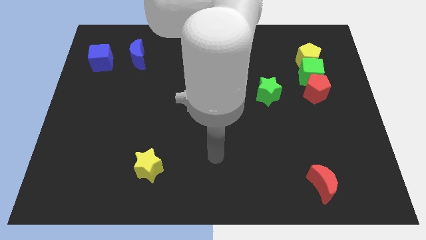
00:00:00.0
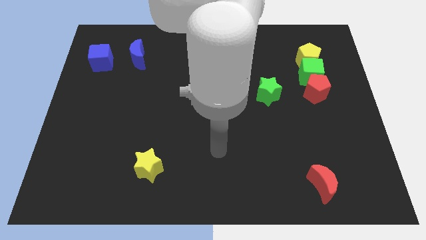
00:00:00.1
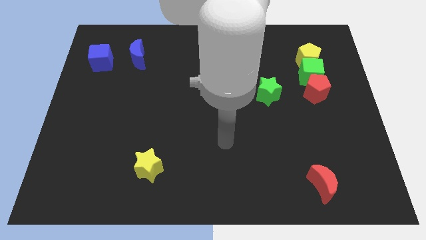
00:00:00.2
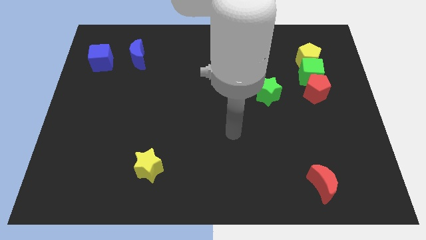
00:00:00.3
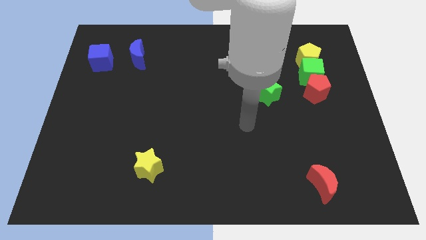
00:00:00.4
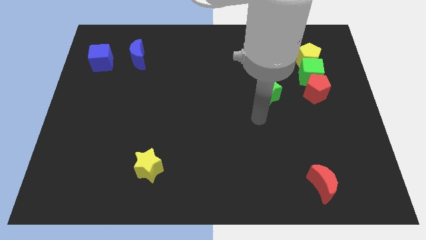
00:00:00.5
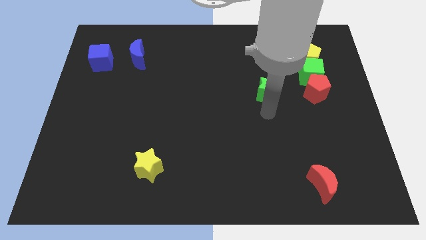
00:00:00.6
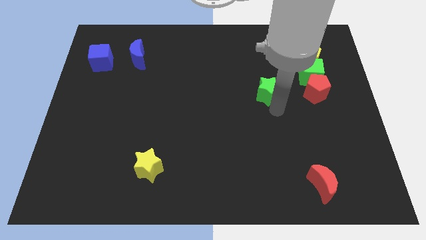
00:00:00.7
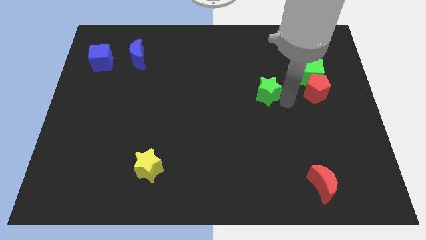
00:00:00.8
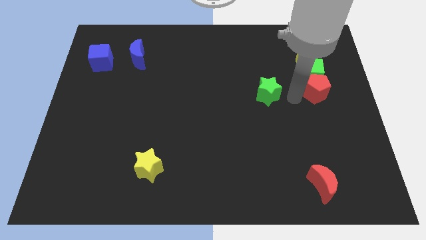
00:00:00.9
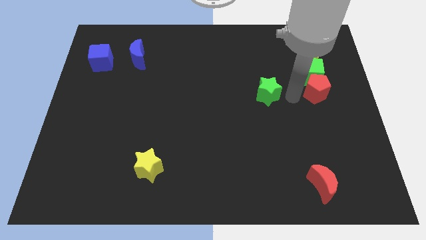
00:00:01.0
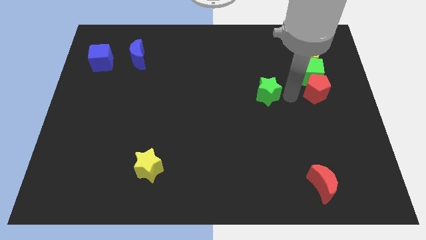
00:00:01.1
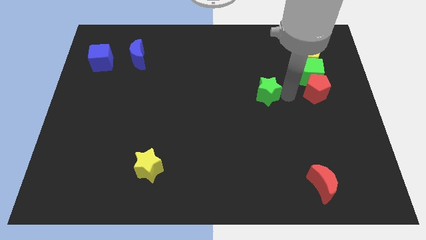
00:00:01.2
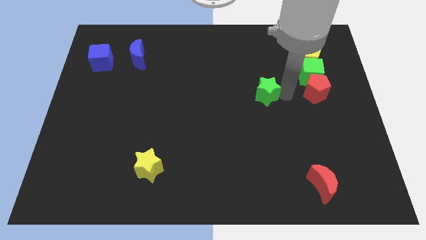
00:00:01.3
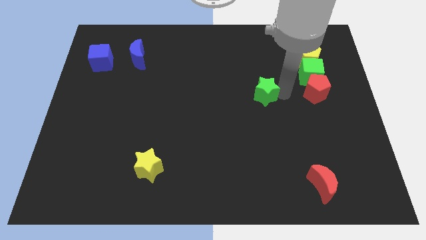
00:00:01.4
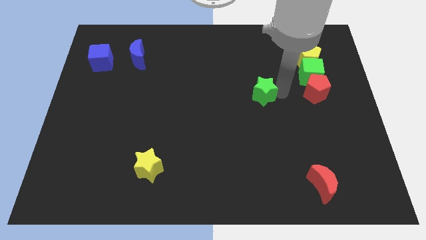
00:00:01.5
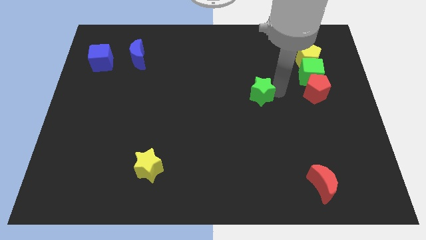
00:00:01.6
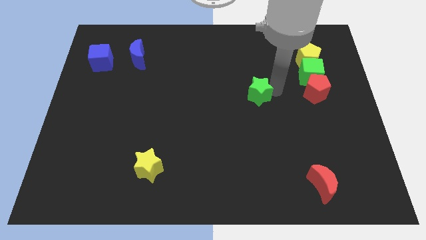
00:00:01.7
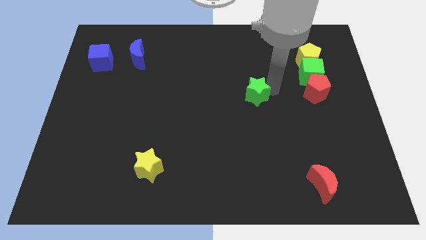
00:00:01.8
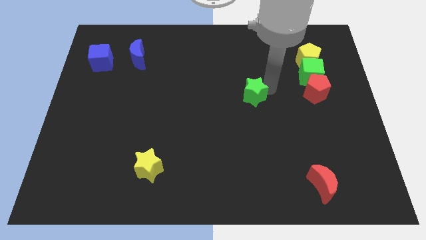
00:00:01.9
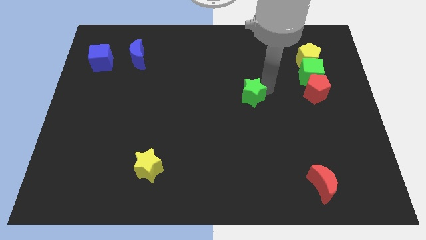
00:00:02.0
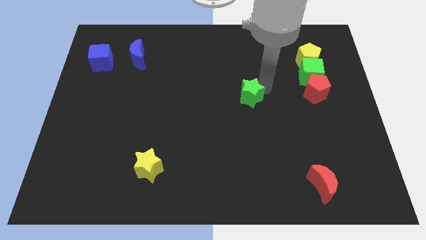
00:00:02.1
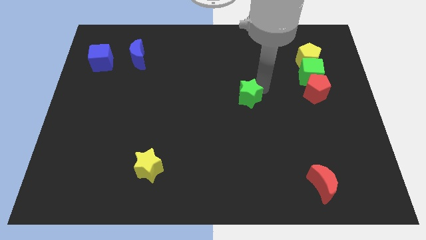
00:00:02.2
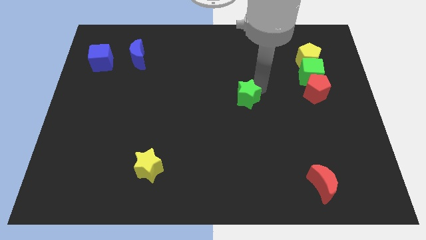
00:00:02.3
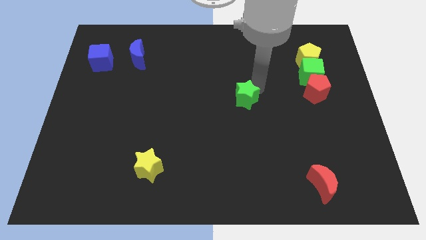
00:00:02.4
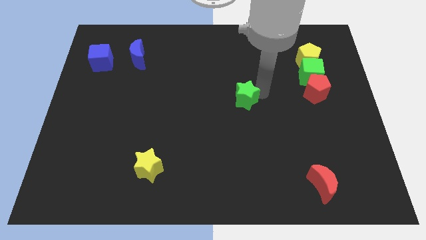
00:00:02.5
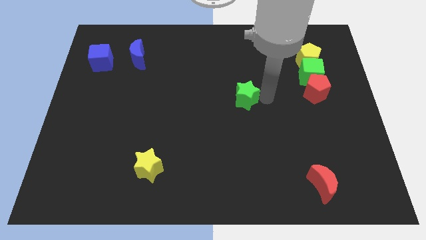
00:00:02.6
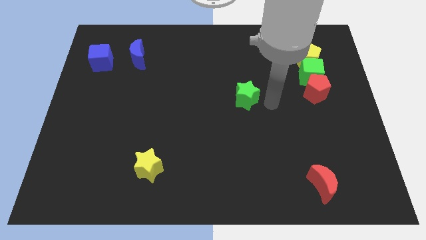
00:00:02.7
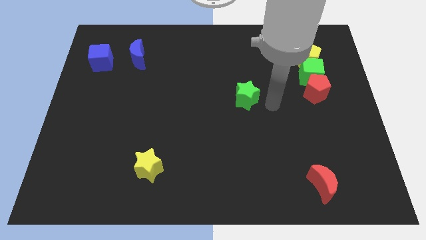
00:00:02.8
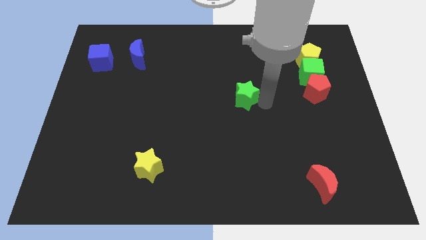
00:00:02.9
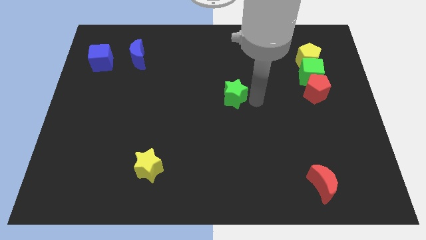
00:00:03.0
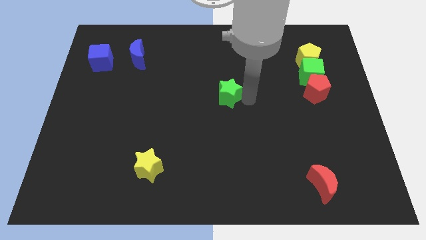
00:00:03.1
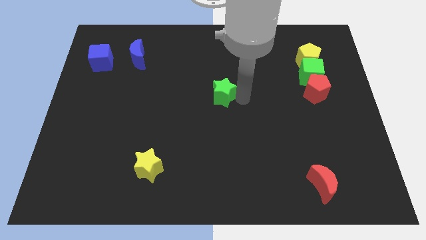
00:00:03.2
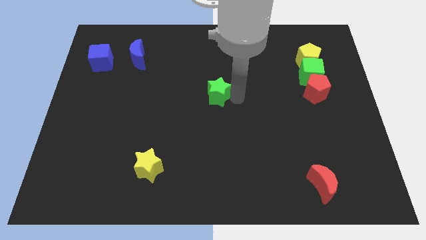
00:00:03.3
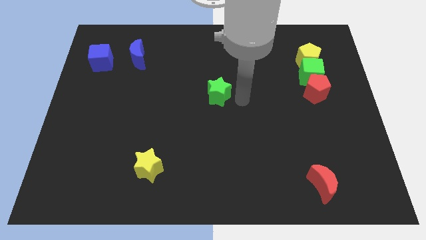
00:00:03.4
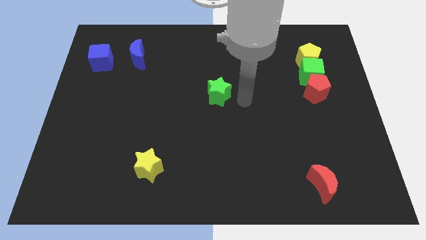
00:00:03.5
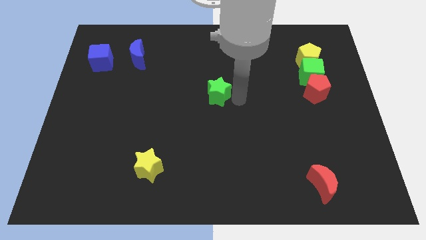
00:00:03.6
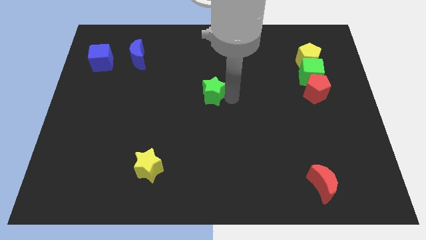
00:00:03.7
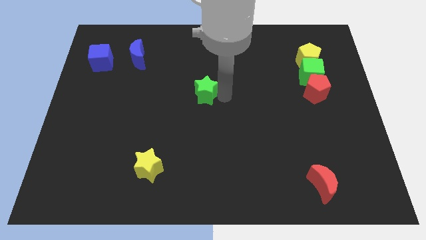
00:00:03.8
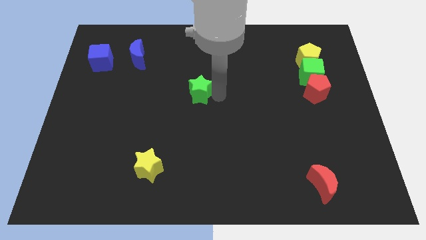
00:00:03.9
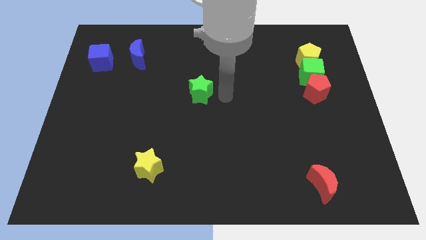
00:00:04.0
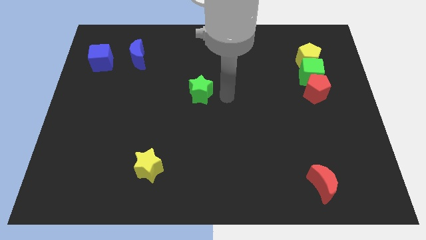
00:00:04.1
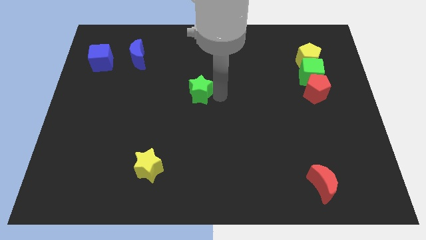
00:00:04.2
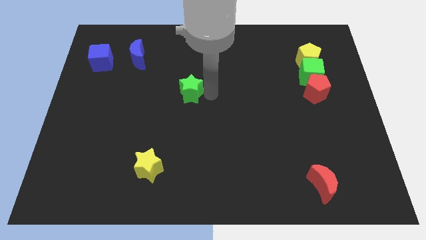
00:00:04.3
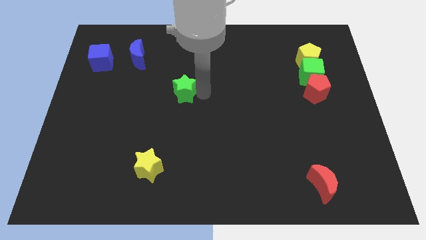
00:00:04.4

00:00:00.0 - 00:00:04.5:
slide the green star left

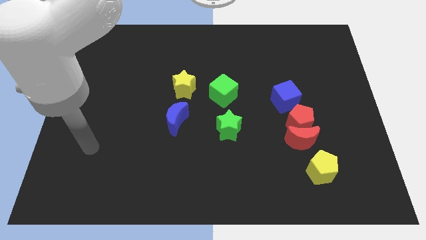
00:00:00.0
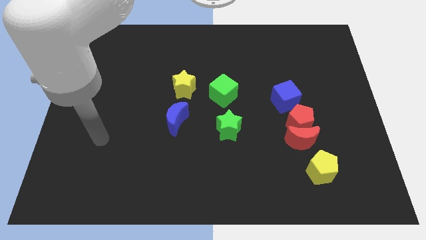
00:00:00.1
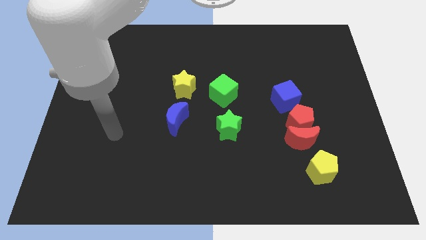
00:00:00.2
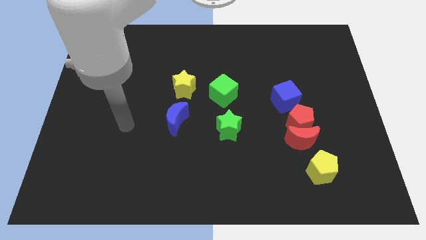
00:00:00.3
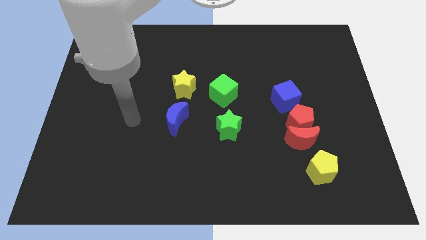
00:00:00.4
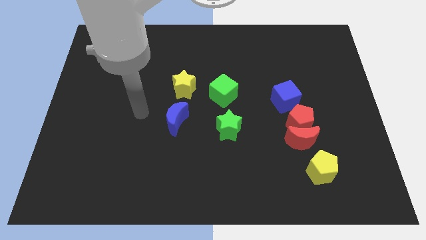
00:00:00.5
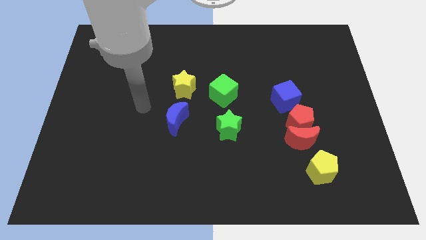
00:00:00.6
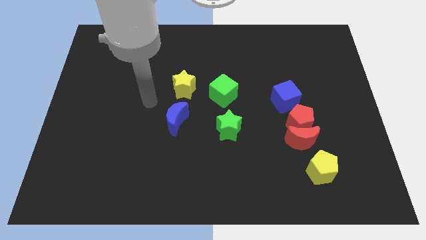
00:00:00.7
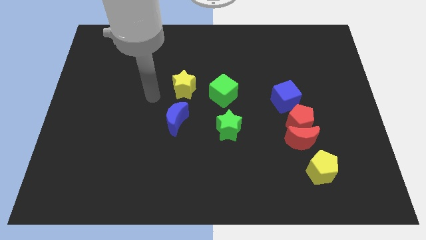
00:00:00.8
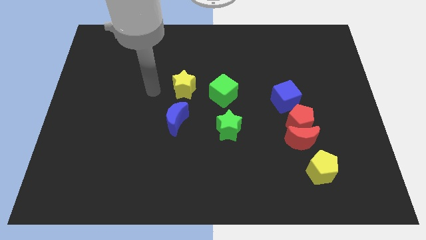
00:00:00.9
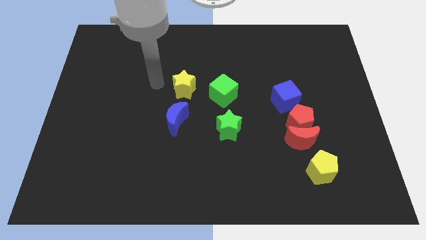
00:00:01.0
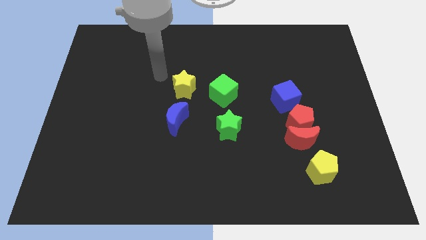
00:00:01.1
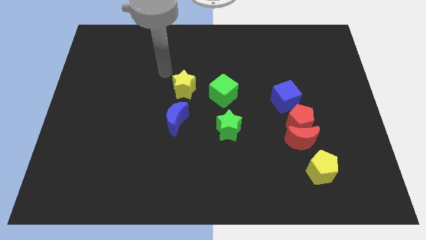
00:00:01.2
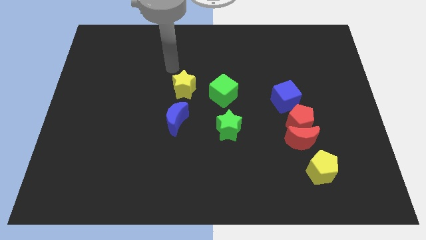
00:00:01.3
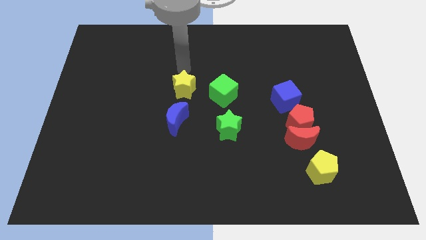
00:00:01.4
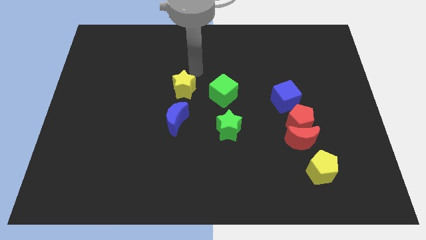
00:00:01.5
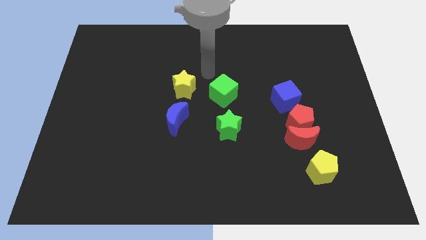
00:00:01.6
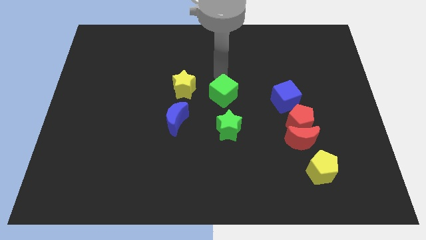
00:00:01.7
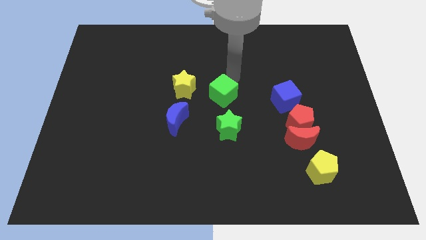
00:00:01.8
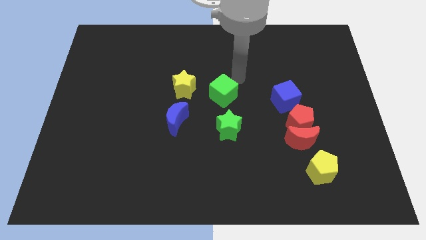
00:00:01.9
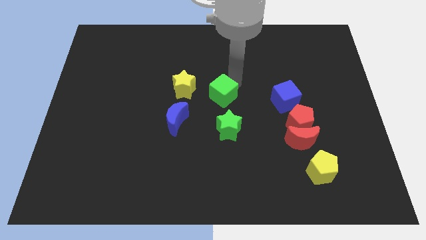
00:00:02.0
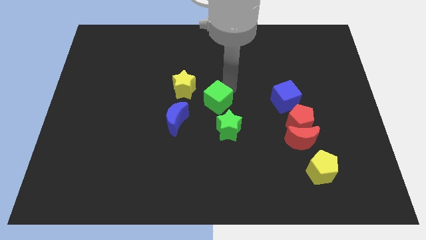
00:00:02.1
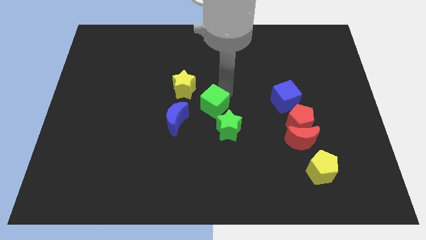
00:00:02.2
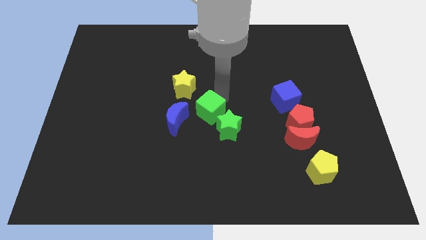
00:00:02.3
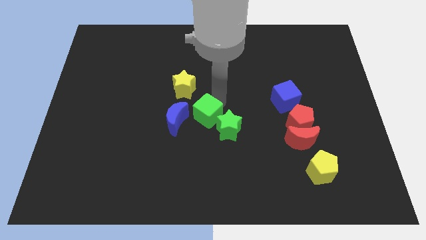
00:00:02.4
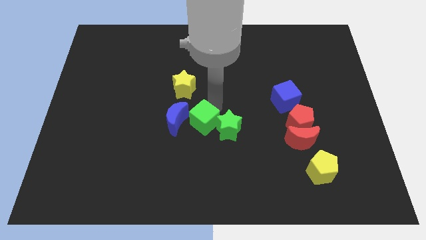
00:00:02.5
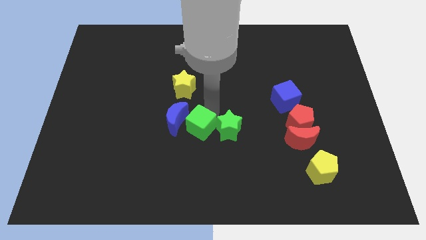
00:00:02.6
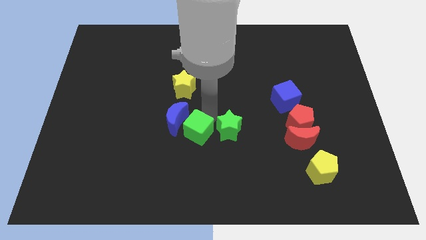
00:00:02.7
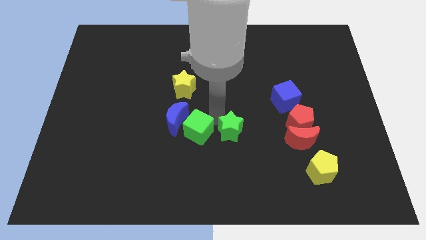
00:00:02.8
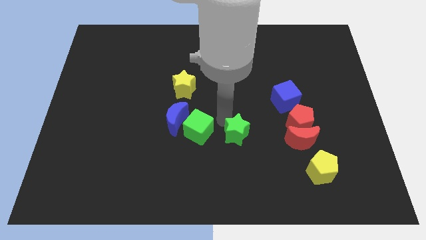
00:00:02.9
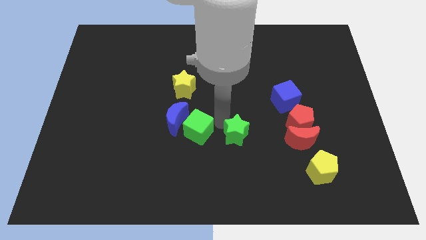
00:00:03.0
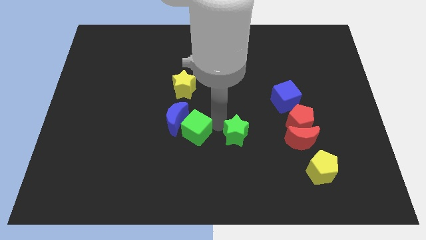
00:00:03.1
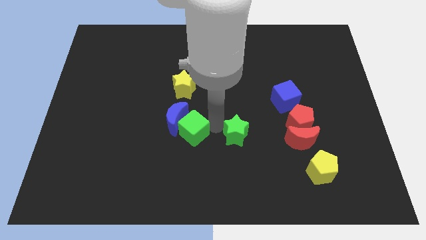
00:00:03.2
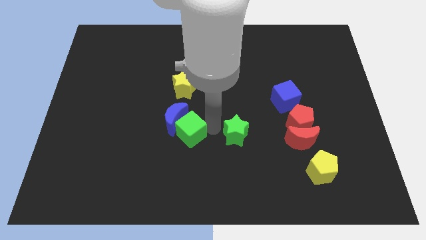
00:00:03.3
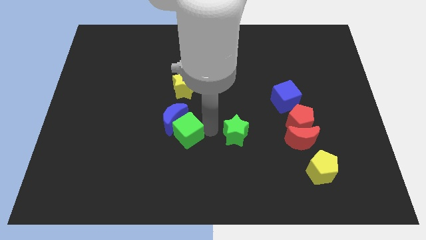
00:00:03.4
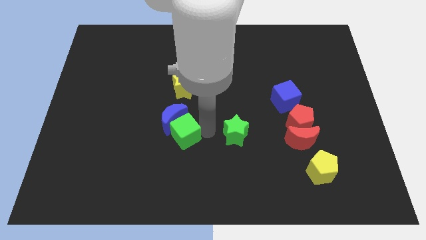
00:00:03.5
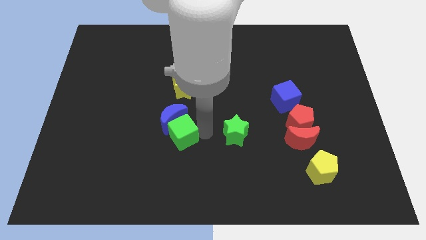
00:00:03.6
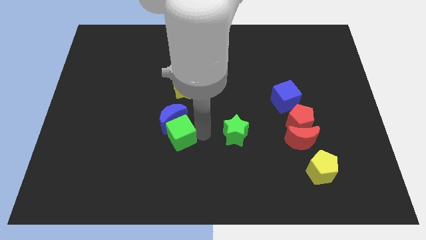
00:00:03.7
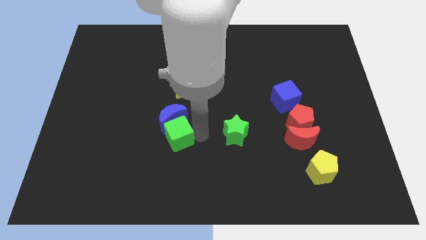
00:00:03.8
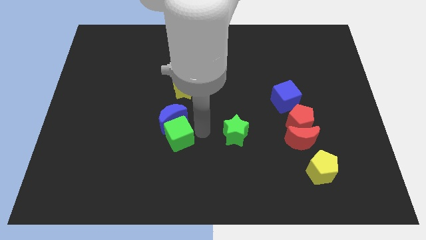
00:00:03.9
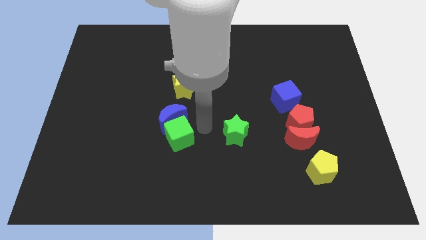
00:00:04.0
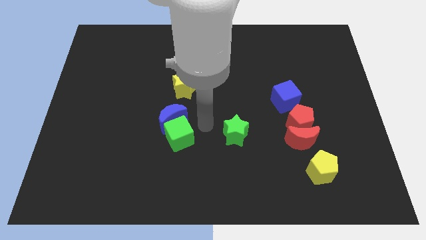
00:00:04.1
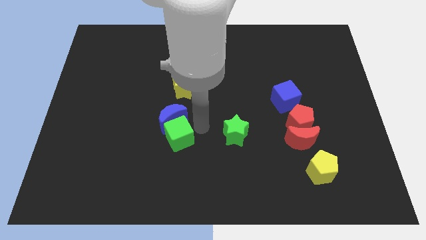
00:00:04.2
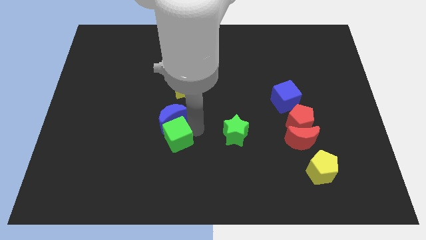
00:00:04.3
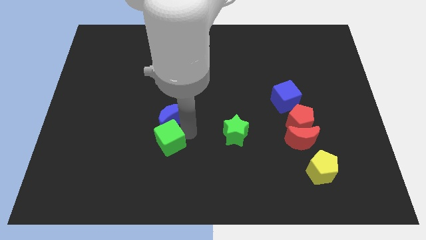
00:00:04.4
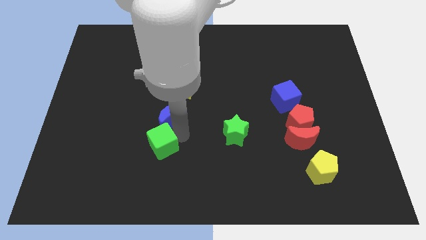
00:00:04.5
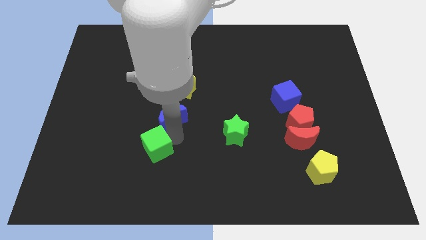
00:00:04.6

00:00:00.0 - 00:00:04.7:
slide the green cube down and then to the left
